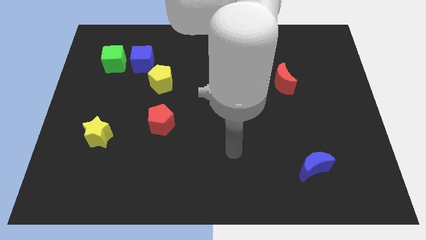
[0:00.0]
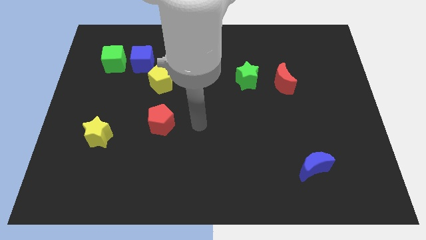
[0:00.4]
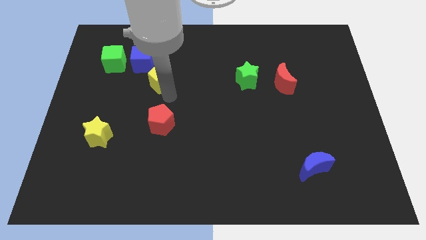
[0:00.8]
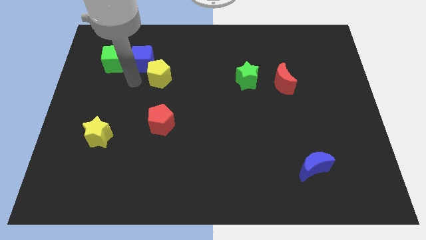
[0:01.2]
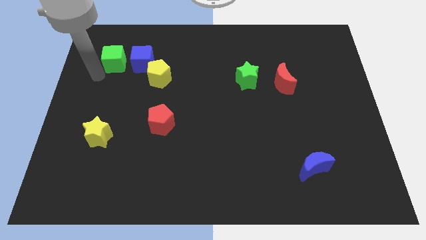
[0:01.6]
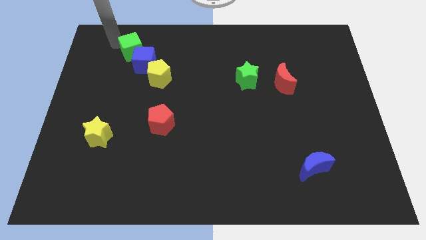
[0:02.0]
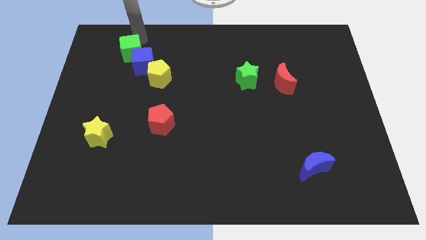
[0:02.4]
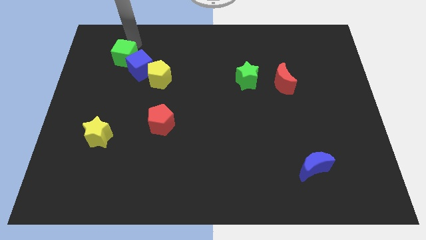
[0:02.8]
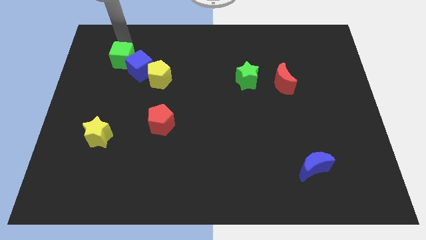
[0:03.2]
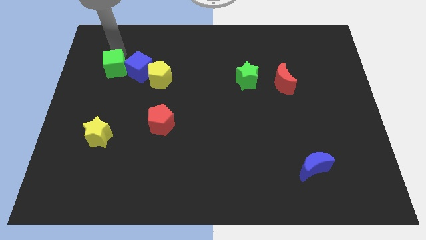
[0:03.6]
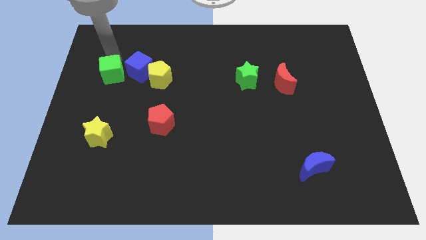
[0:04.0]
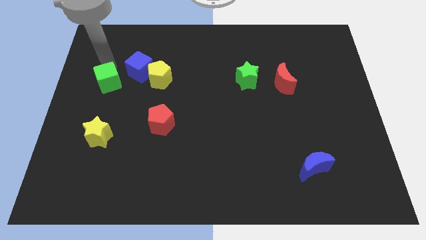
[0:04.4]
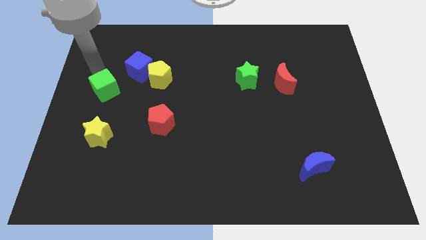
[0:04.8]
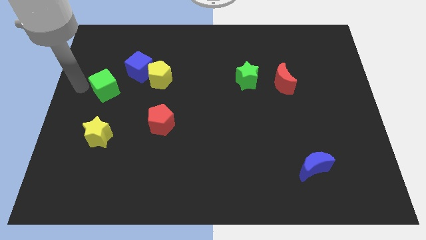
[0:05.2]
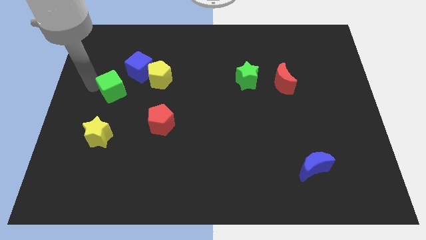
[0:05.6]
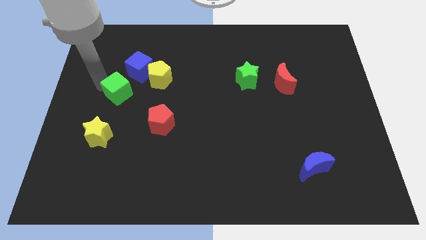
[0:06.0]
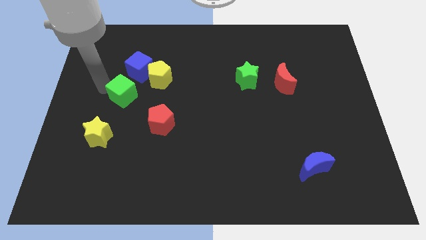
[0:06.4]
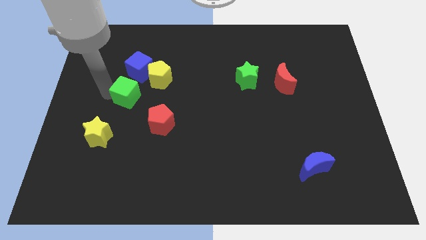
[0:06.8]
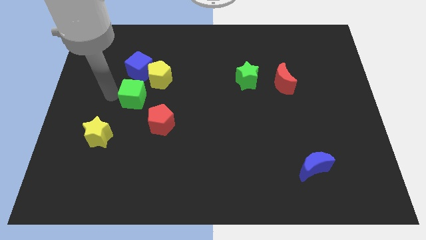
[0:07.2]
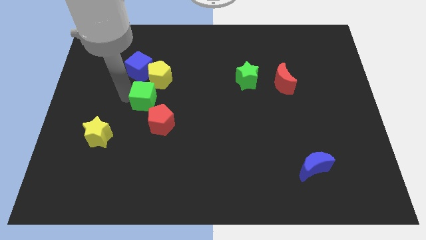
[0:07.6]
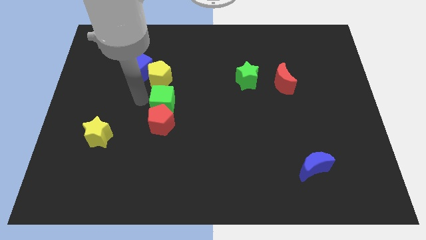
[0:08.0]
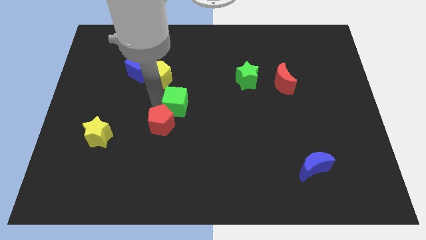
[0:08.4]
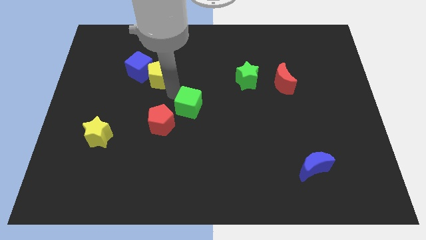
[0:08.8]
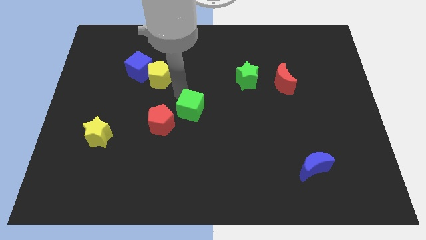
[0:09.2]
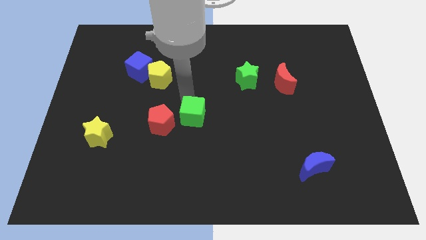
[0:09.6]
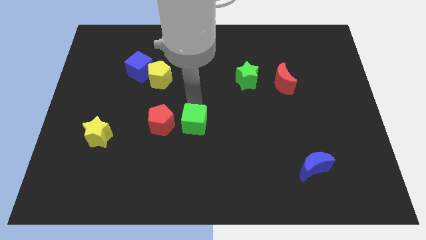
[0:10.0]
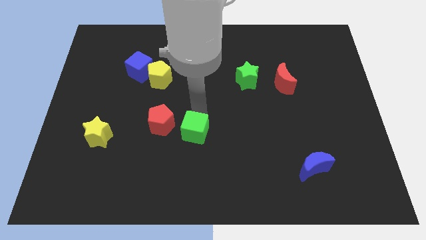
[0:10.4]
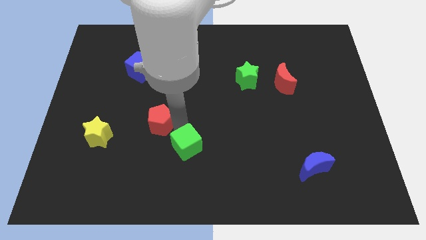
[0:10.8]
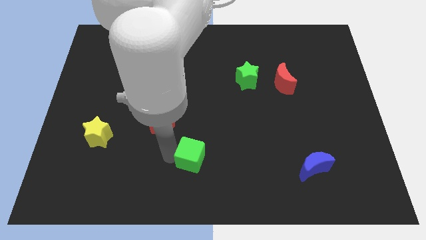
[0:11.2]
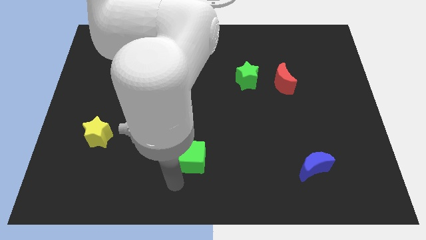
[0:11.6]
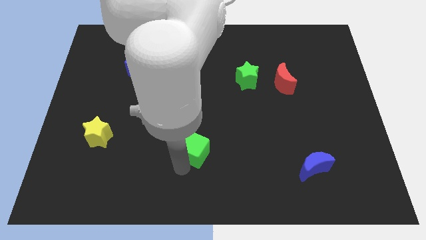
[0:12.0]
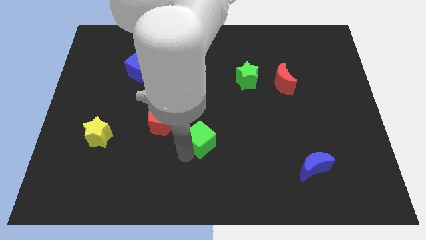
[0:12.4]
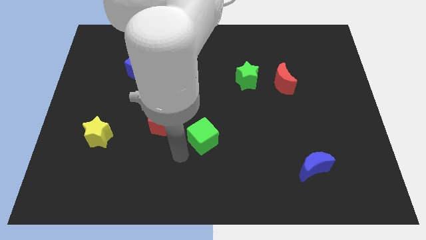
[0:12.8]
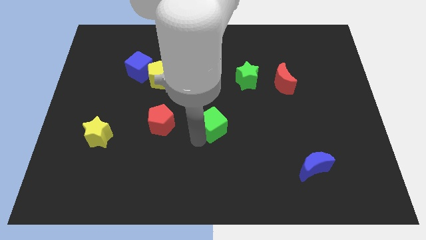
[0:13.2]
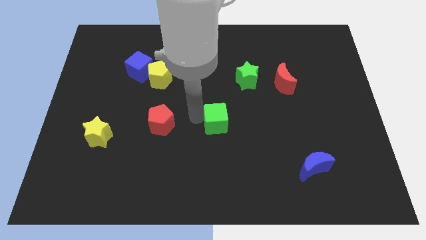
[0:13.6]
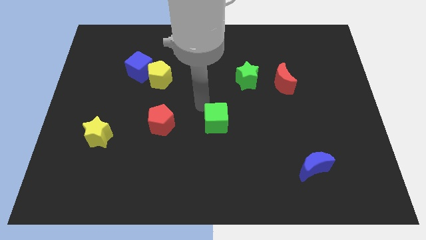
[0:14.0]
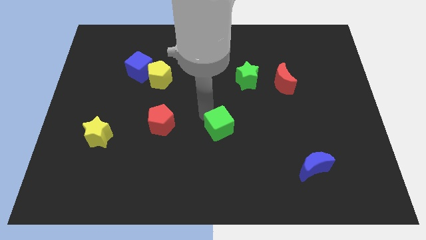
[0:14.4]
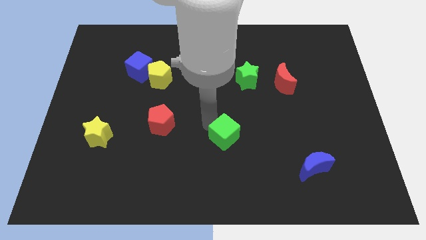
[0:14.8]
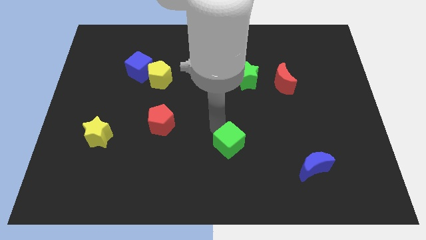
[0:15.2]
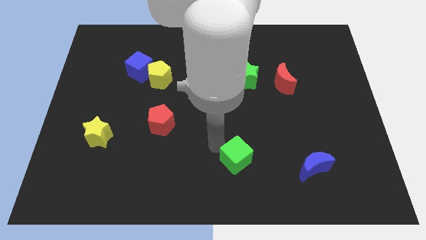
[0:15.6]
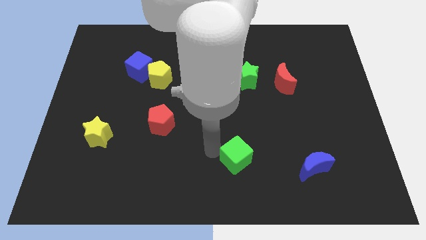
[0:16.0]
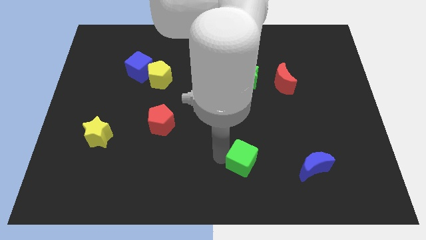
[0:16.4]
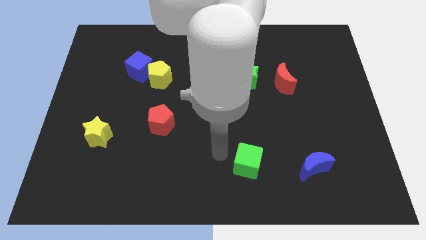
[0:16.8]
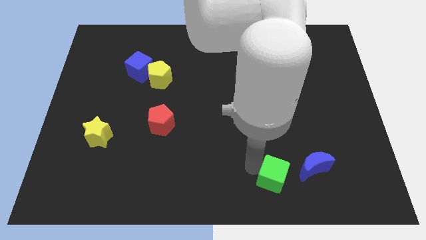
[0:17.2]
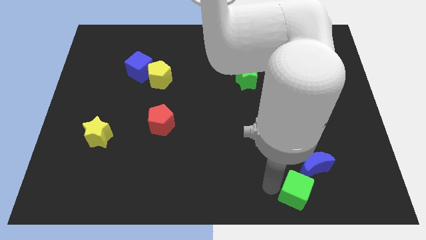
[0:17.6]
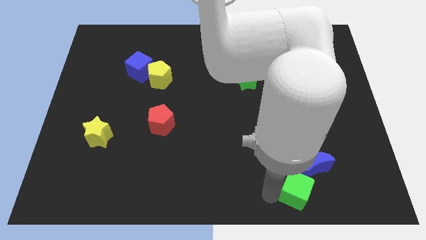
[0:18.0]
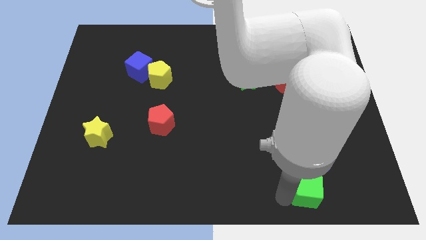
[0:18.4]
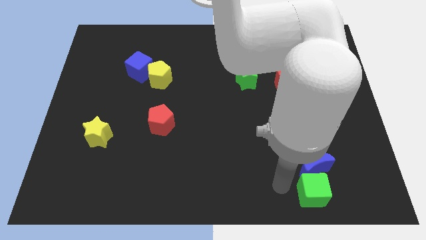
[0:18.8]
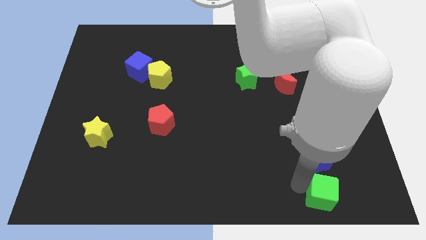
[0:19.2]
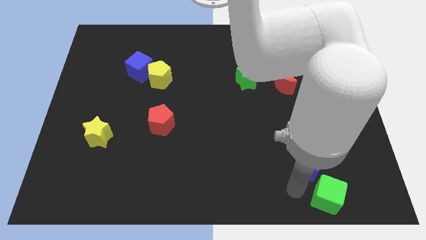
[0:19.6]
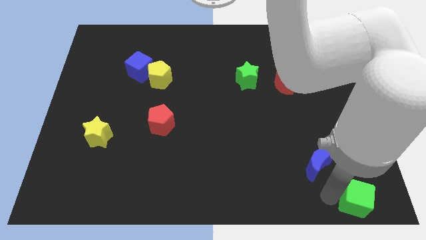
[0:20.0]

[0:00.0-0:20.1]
push the green cube to the bottom right of the board

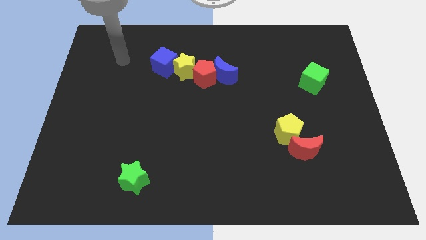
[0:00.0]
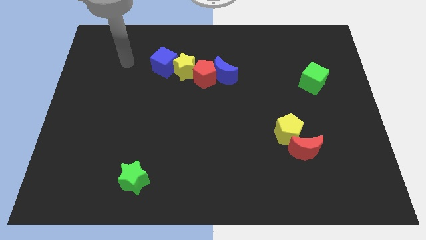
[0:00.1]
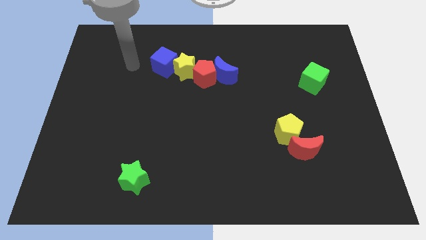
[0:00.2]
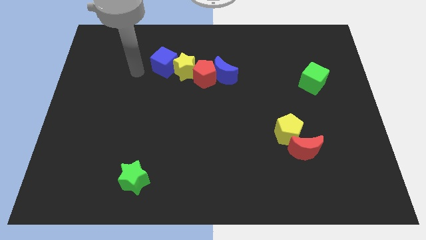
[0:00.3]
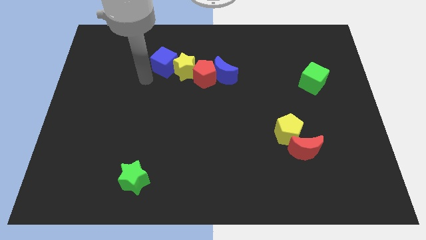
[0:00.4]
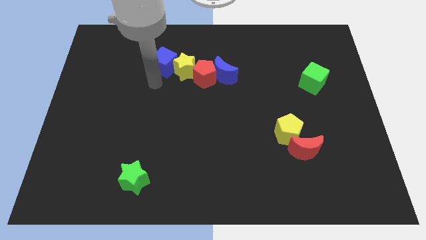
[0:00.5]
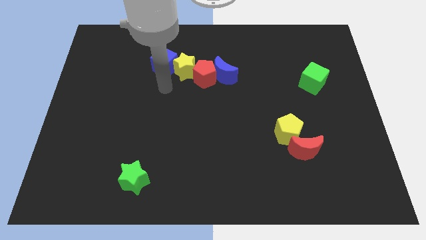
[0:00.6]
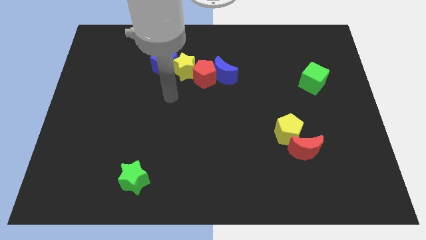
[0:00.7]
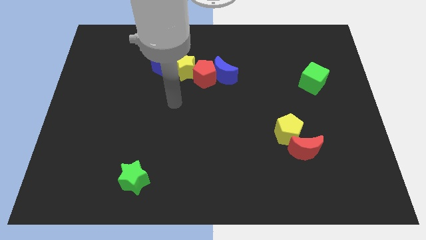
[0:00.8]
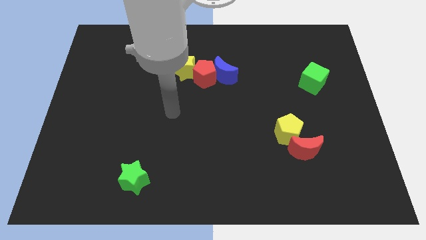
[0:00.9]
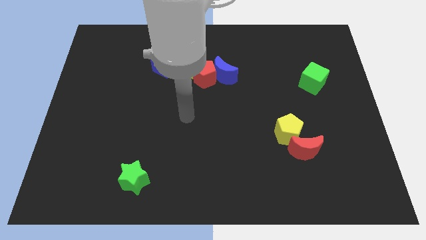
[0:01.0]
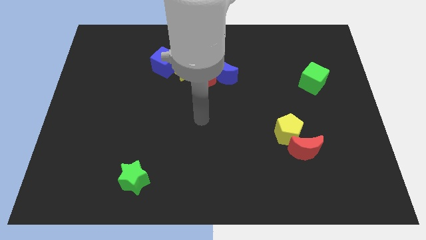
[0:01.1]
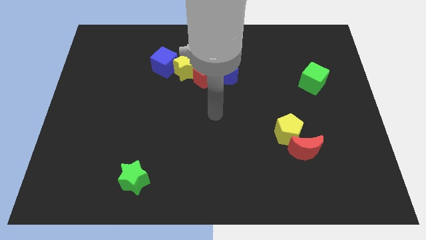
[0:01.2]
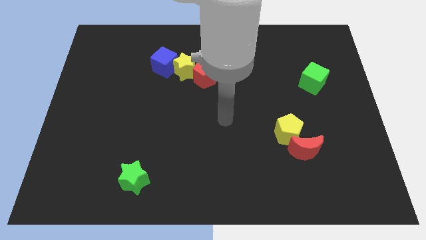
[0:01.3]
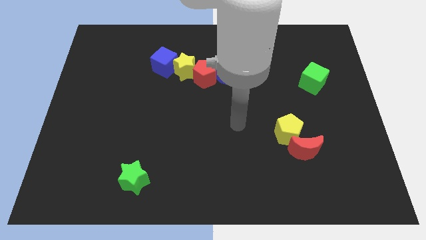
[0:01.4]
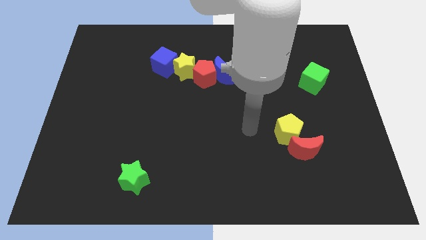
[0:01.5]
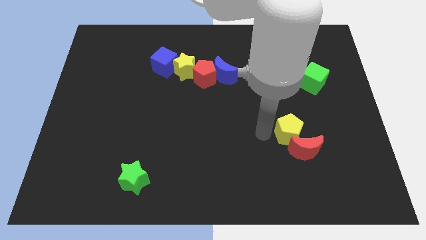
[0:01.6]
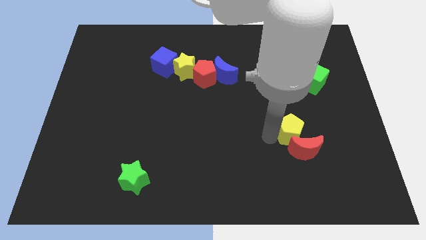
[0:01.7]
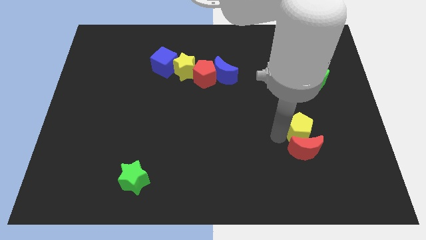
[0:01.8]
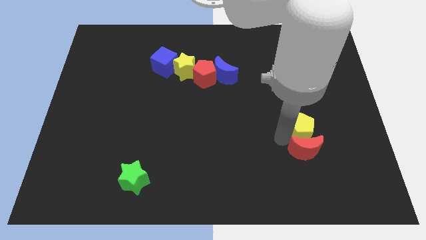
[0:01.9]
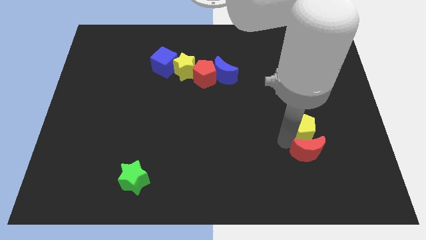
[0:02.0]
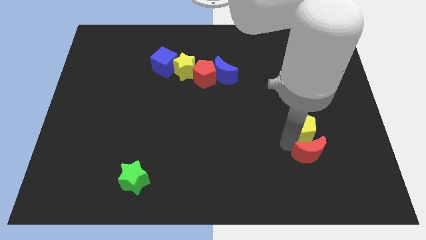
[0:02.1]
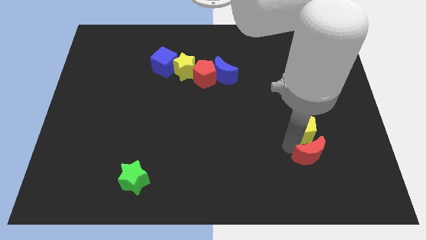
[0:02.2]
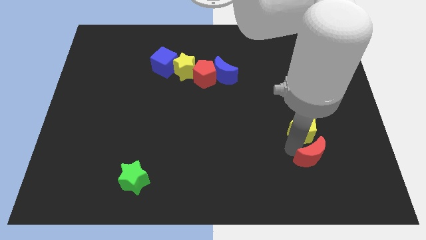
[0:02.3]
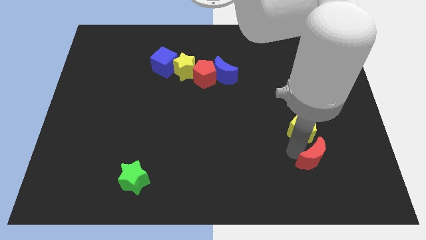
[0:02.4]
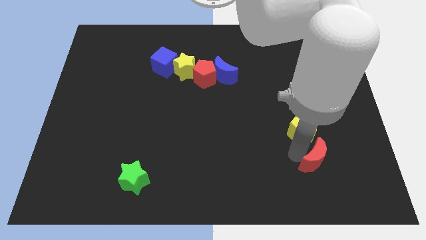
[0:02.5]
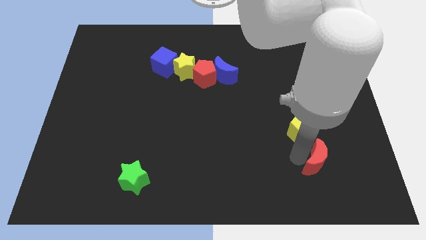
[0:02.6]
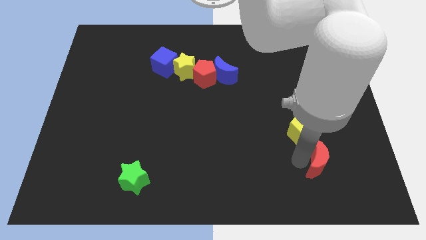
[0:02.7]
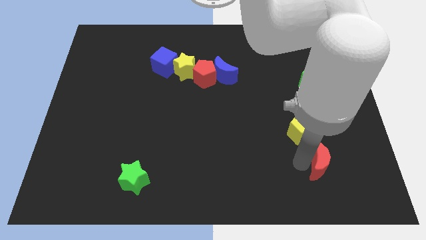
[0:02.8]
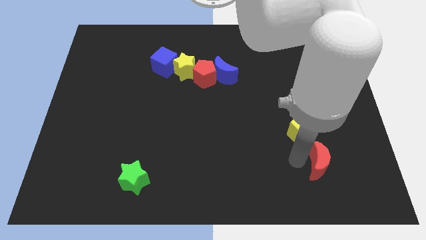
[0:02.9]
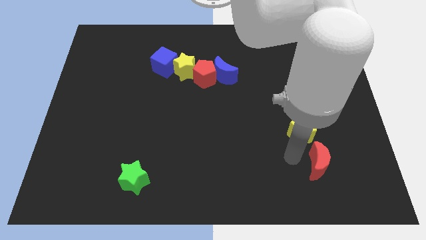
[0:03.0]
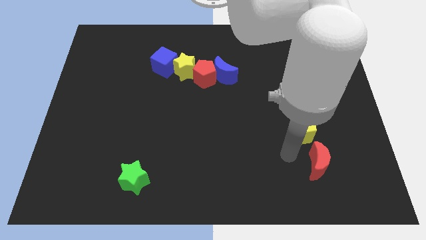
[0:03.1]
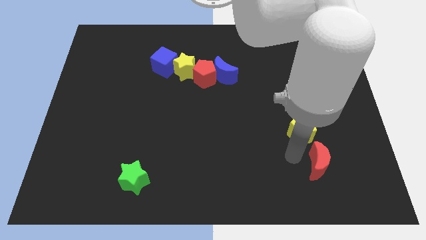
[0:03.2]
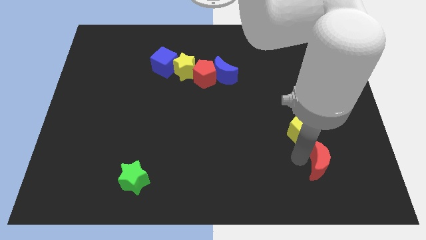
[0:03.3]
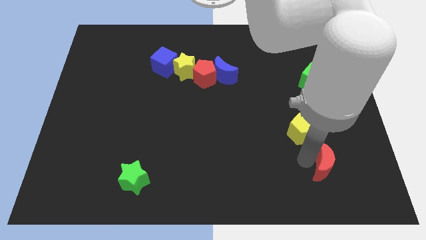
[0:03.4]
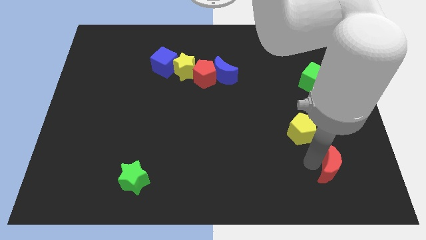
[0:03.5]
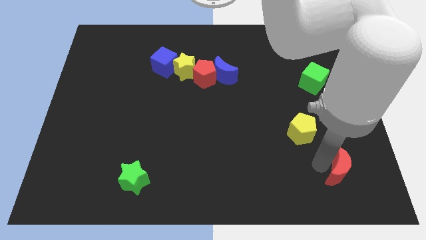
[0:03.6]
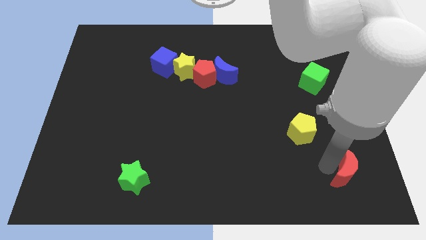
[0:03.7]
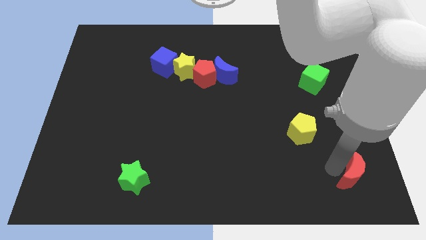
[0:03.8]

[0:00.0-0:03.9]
put the red moon to the bottom right
